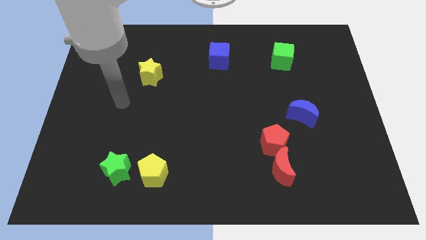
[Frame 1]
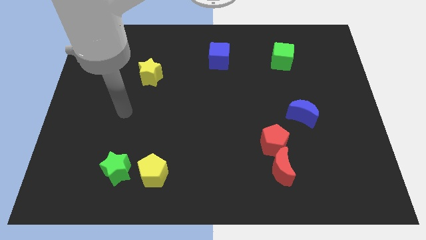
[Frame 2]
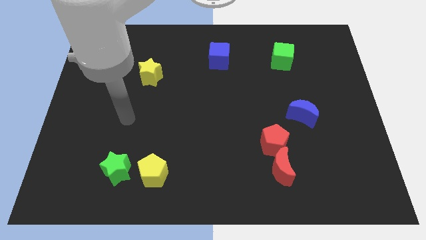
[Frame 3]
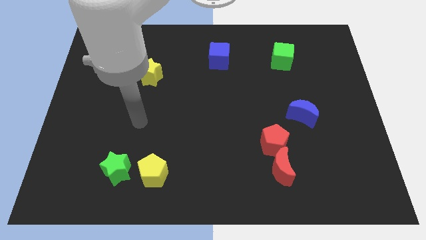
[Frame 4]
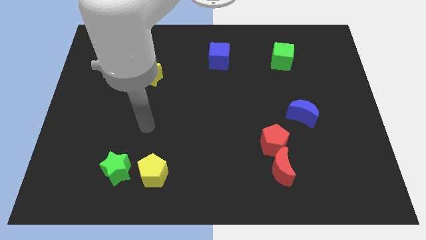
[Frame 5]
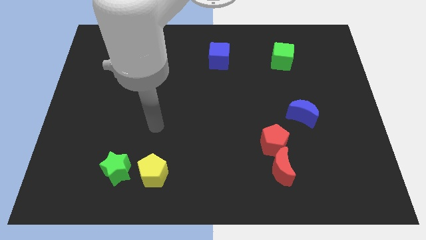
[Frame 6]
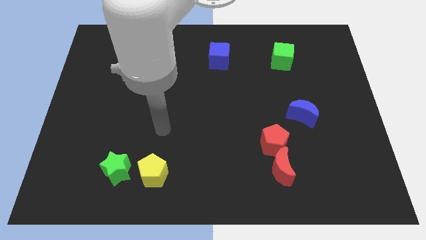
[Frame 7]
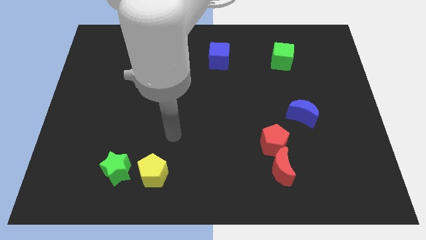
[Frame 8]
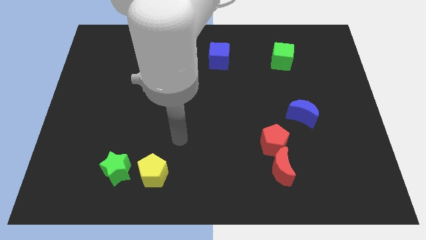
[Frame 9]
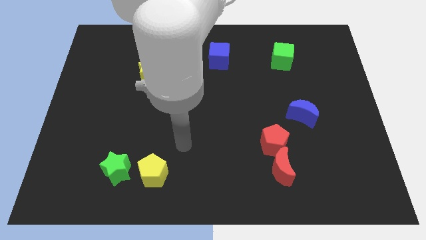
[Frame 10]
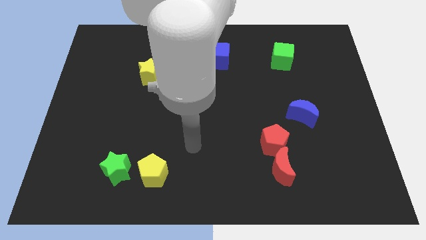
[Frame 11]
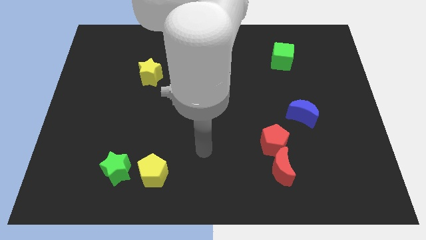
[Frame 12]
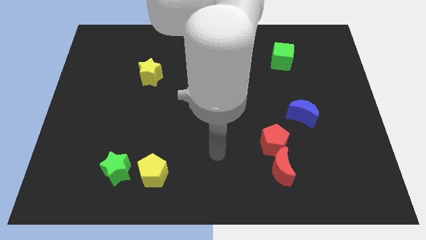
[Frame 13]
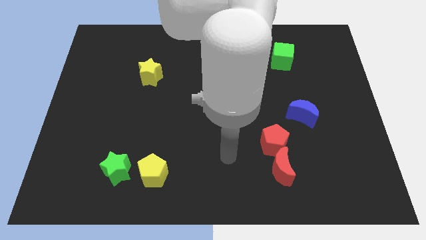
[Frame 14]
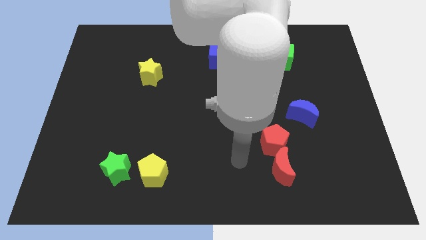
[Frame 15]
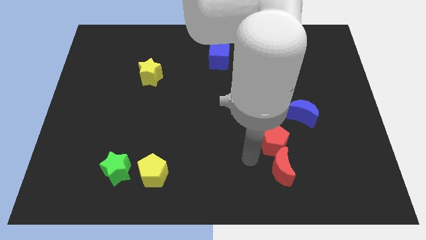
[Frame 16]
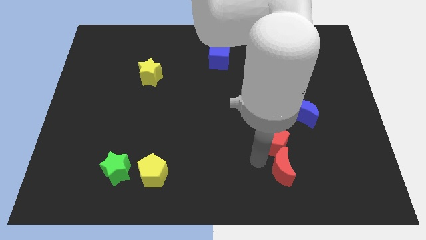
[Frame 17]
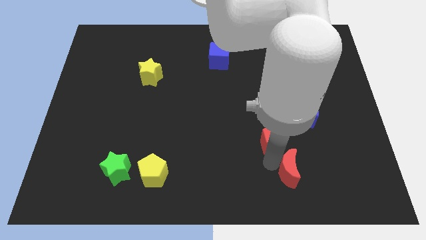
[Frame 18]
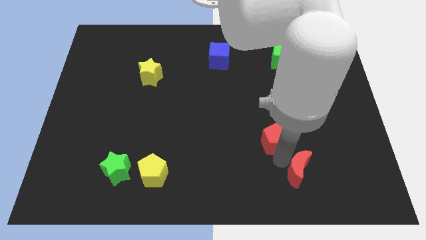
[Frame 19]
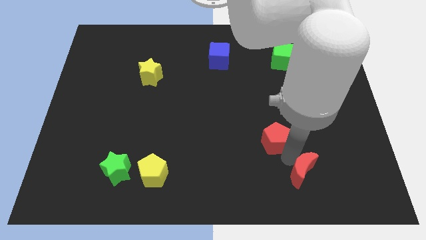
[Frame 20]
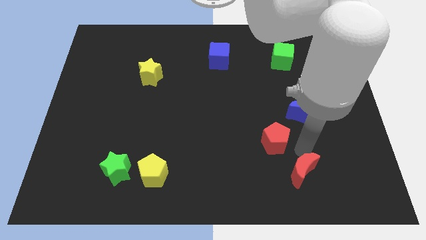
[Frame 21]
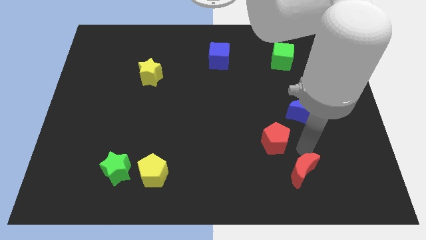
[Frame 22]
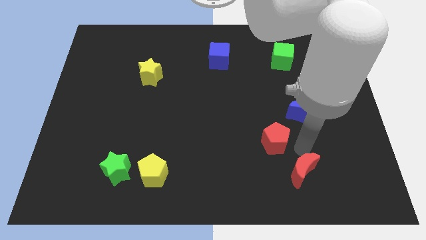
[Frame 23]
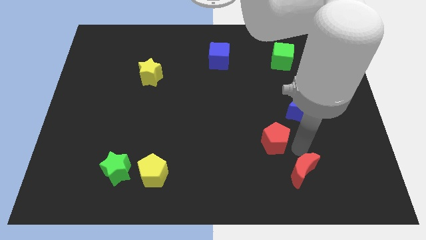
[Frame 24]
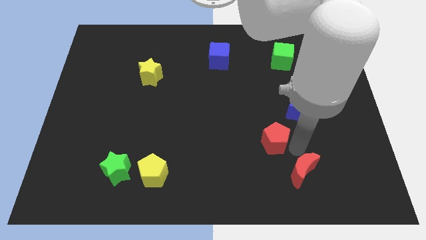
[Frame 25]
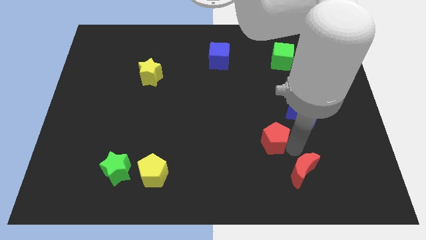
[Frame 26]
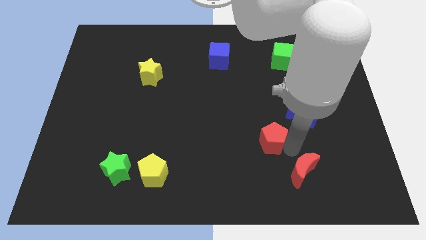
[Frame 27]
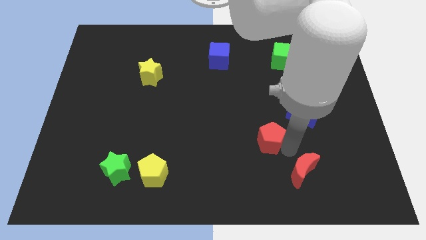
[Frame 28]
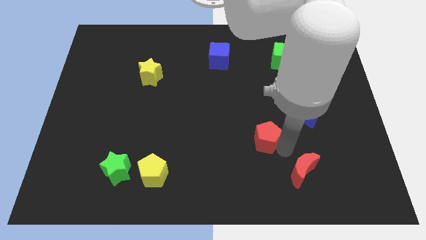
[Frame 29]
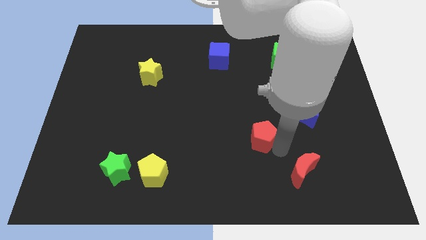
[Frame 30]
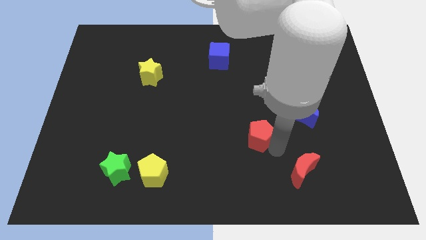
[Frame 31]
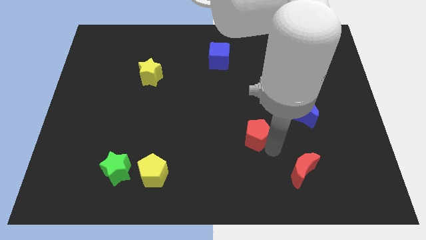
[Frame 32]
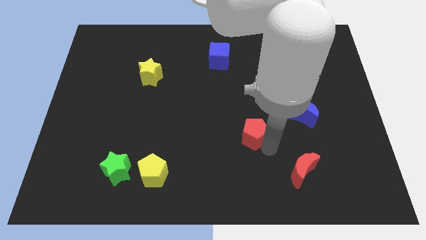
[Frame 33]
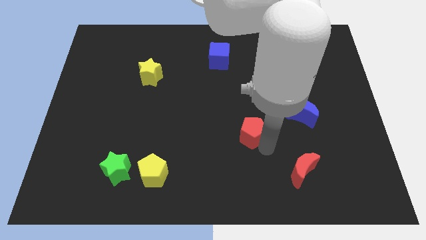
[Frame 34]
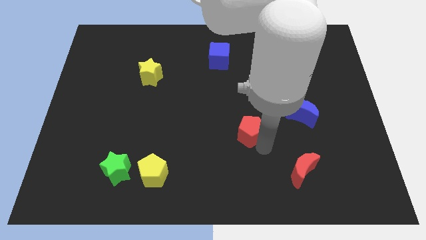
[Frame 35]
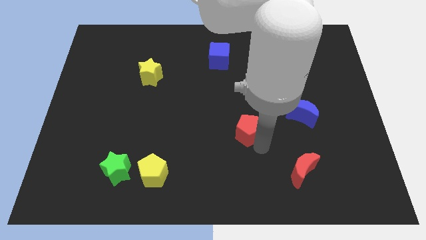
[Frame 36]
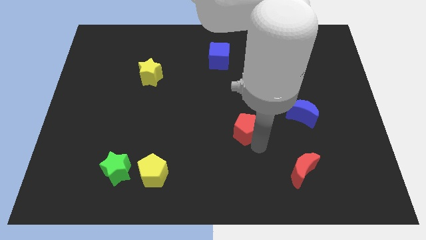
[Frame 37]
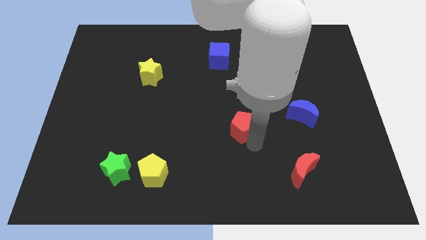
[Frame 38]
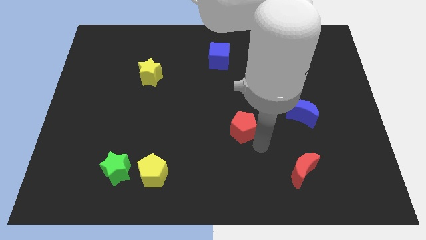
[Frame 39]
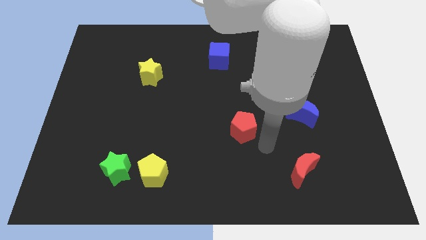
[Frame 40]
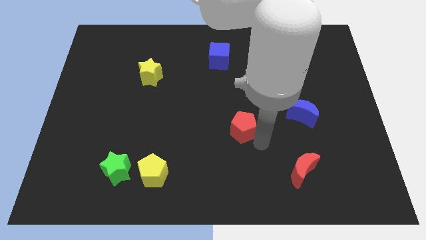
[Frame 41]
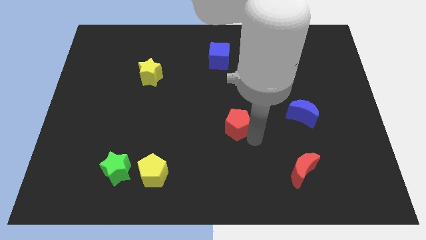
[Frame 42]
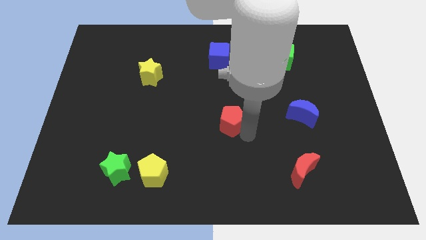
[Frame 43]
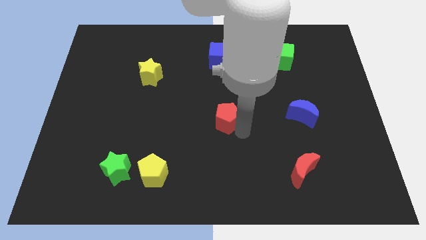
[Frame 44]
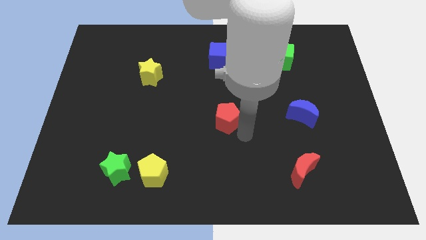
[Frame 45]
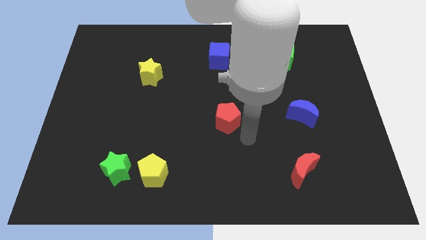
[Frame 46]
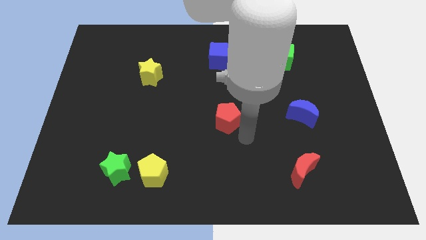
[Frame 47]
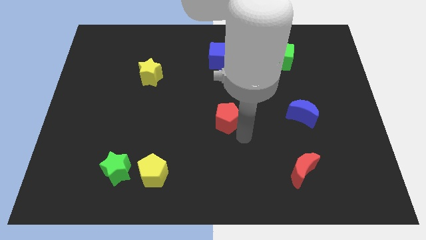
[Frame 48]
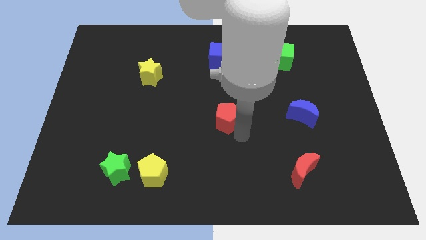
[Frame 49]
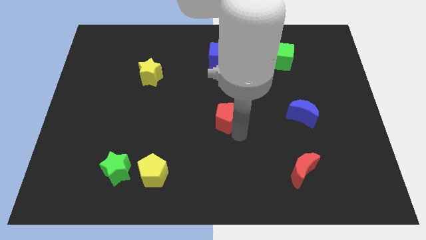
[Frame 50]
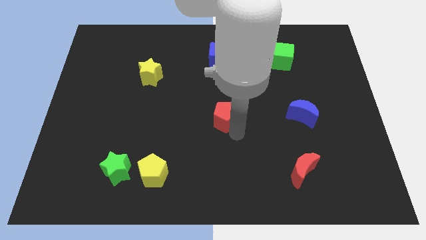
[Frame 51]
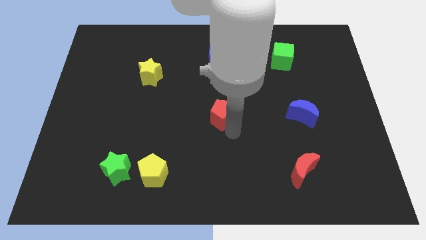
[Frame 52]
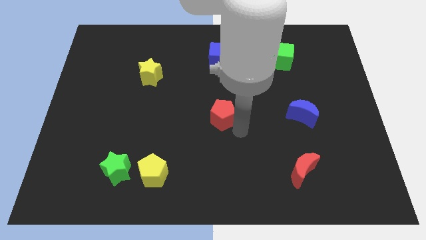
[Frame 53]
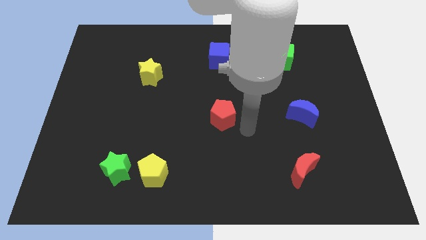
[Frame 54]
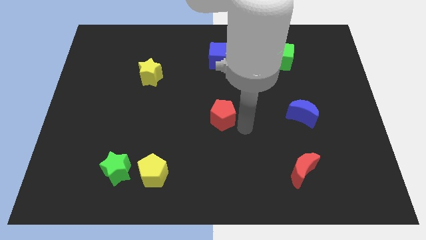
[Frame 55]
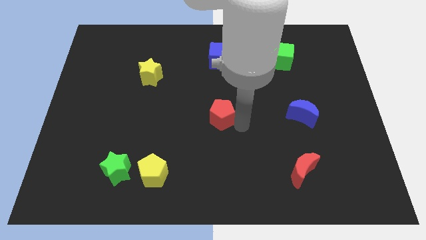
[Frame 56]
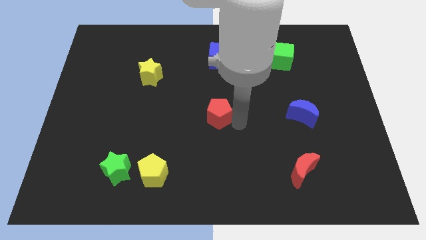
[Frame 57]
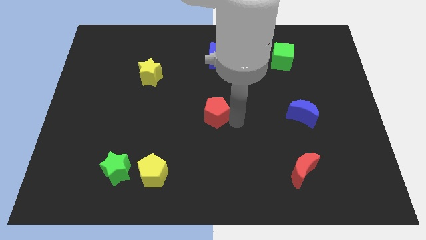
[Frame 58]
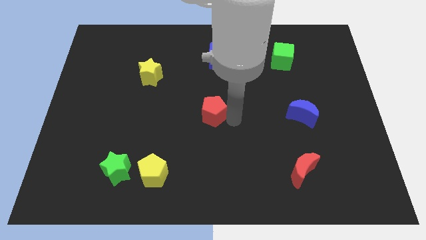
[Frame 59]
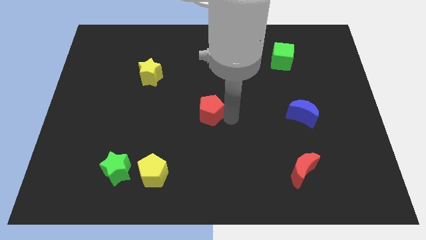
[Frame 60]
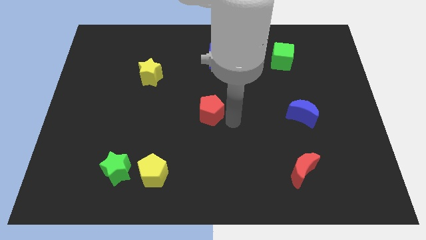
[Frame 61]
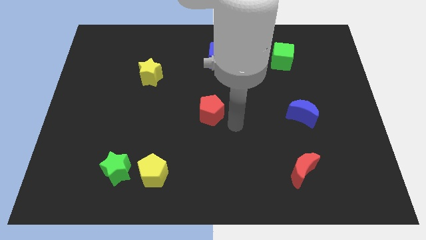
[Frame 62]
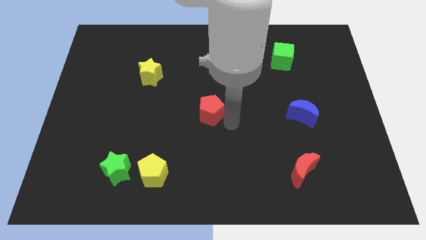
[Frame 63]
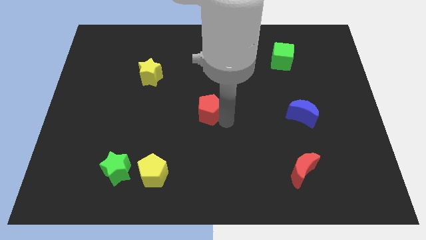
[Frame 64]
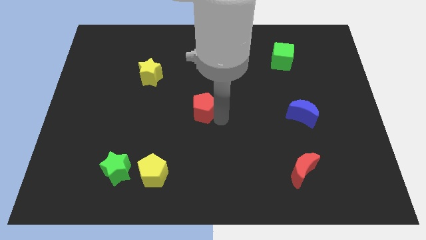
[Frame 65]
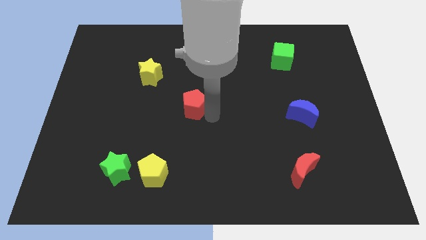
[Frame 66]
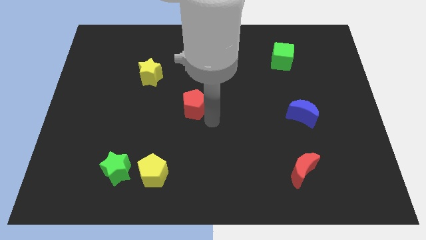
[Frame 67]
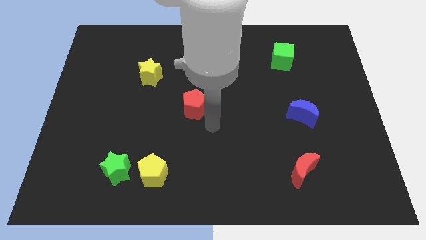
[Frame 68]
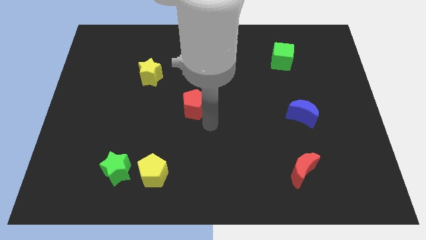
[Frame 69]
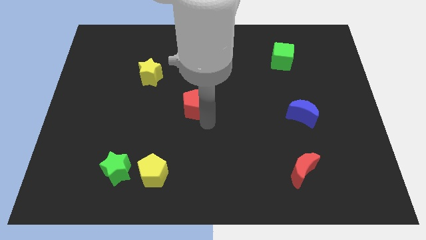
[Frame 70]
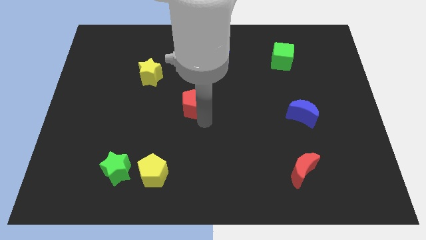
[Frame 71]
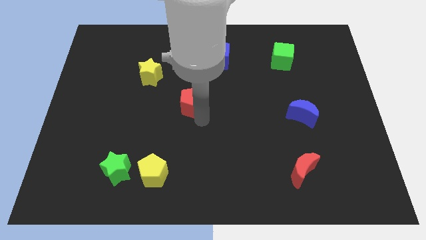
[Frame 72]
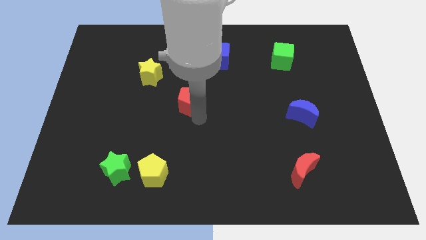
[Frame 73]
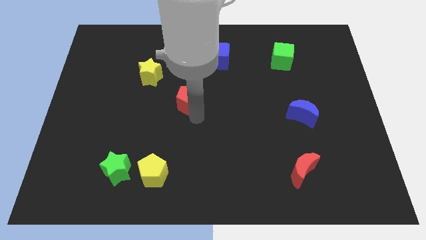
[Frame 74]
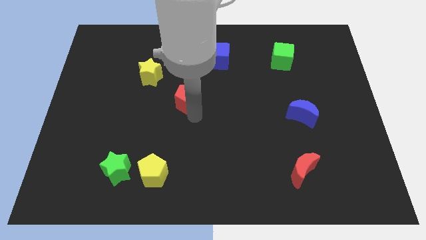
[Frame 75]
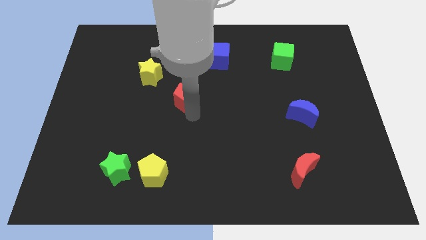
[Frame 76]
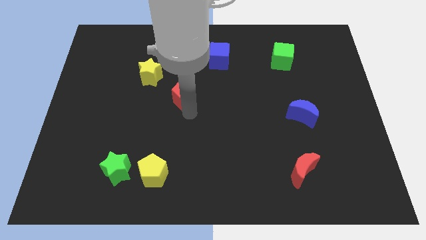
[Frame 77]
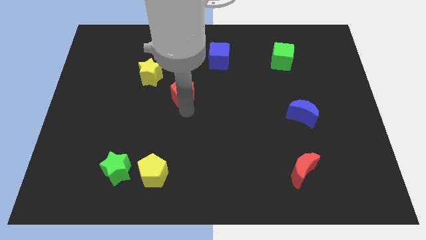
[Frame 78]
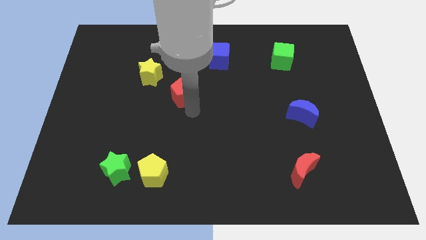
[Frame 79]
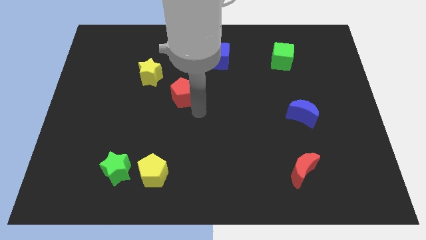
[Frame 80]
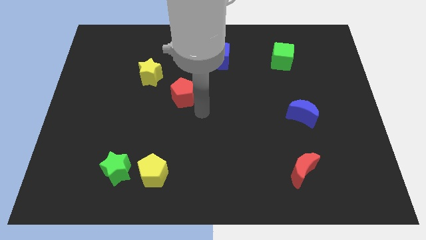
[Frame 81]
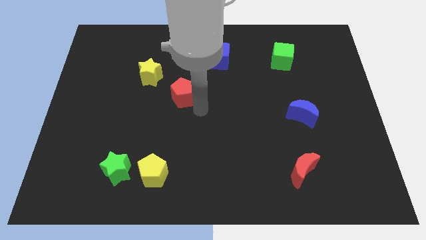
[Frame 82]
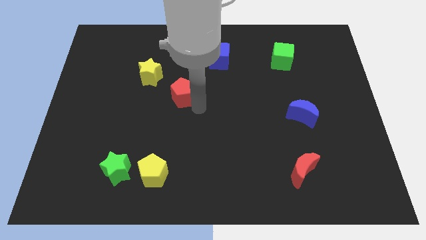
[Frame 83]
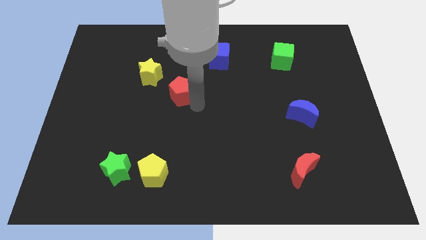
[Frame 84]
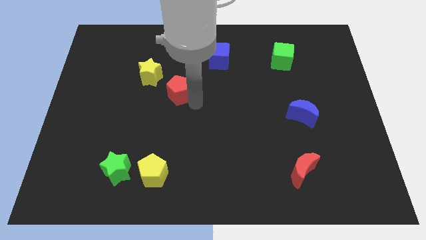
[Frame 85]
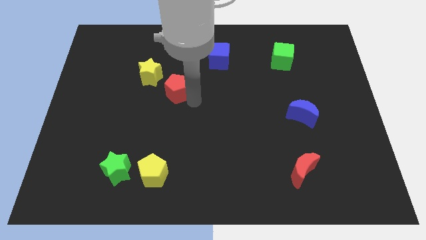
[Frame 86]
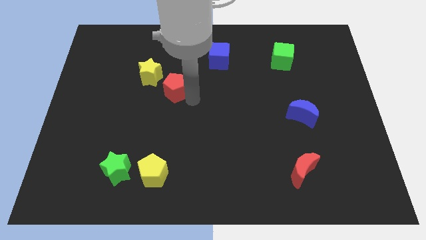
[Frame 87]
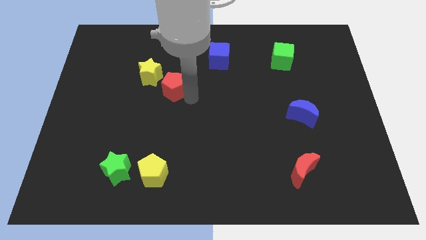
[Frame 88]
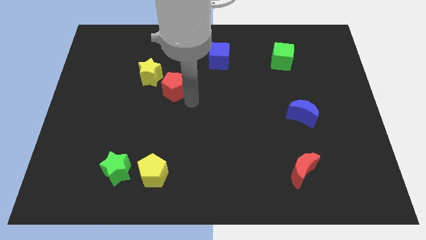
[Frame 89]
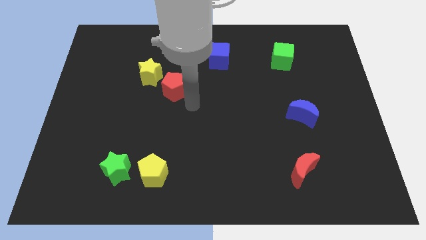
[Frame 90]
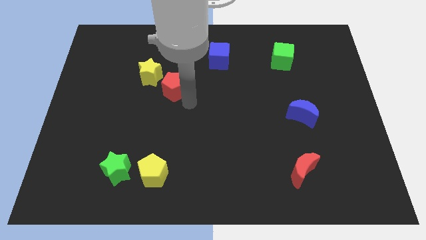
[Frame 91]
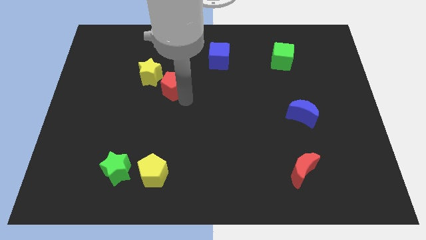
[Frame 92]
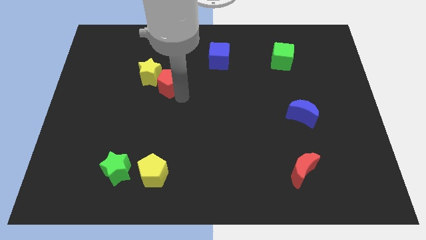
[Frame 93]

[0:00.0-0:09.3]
move the red pentagon close to the yellow star
